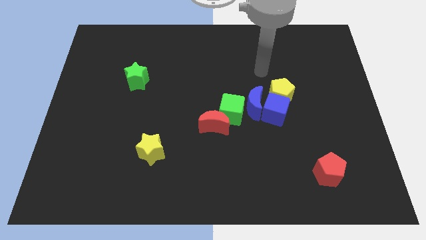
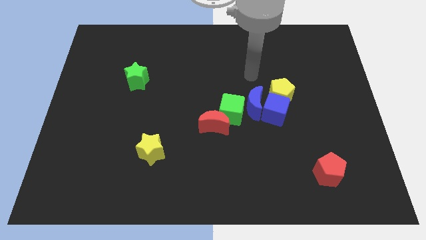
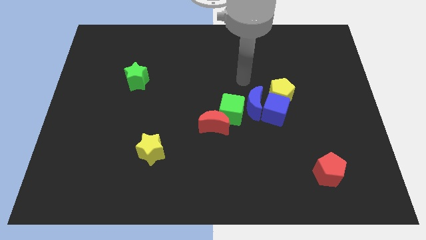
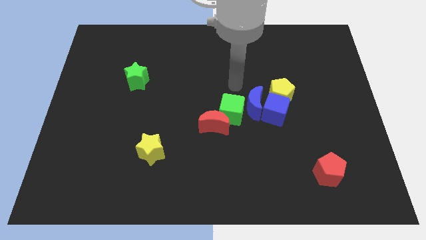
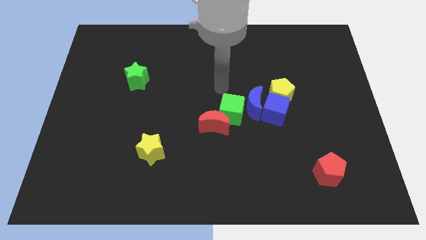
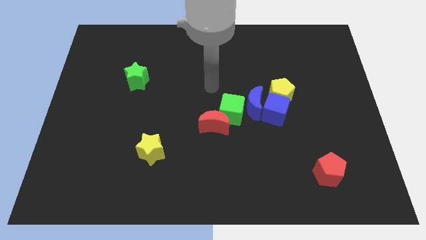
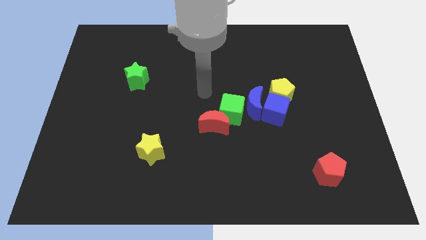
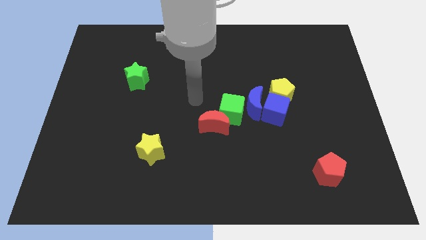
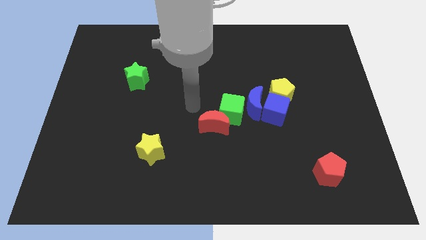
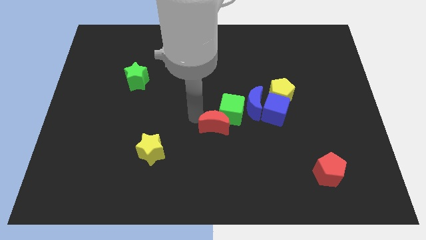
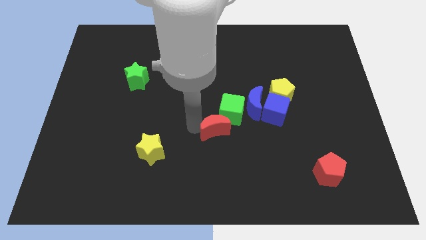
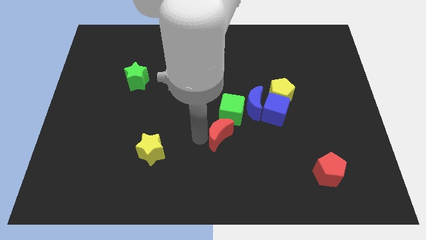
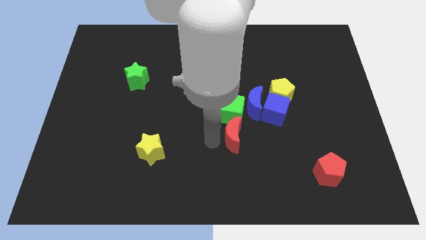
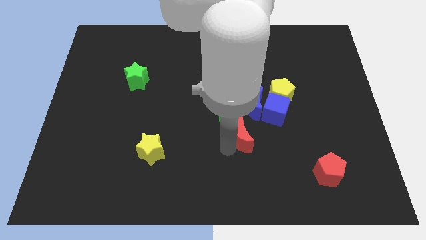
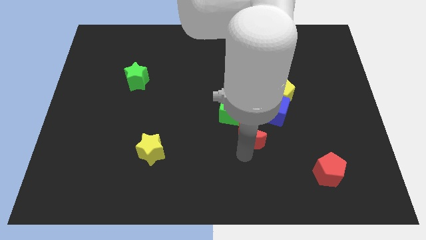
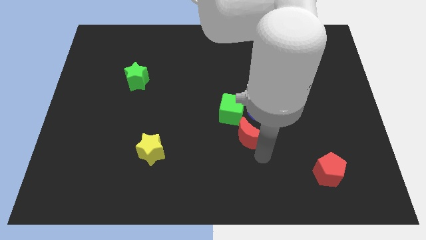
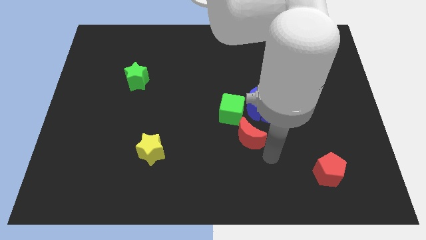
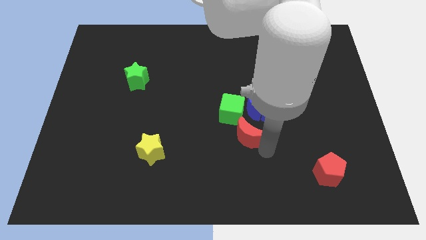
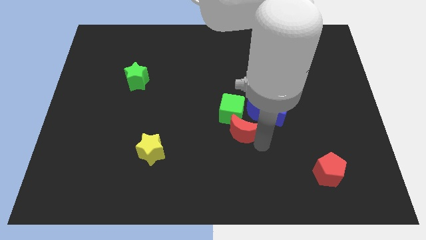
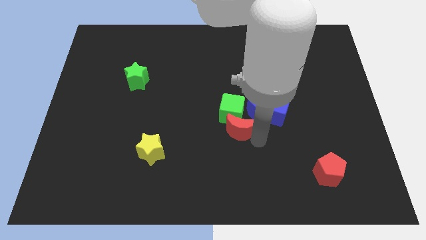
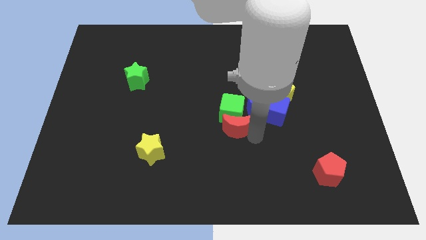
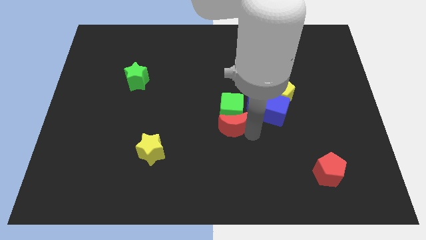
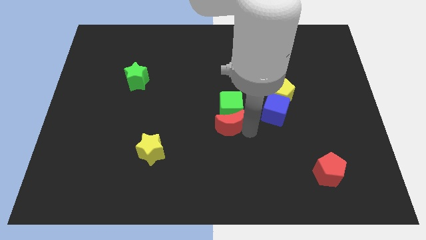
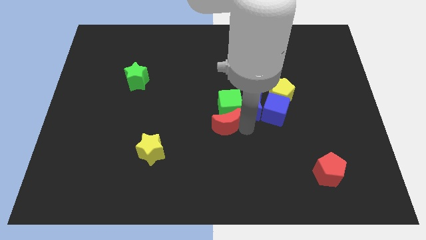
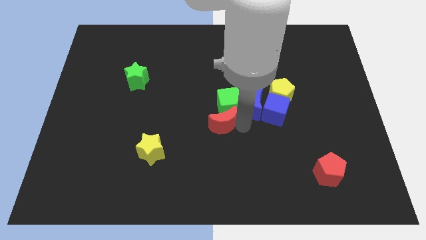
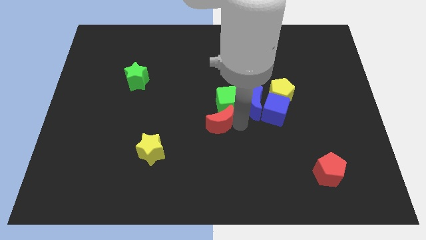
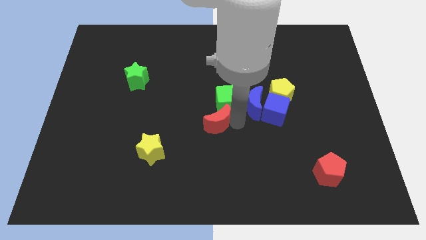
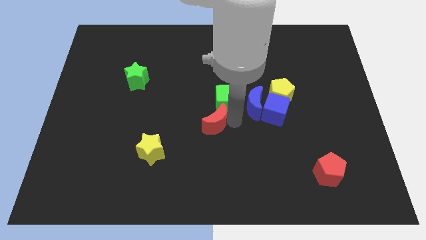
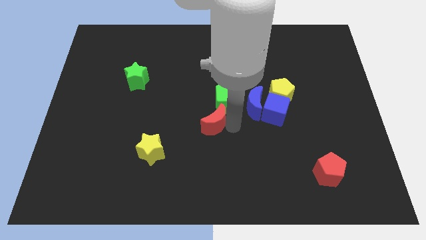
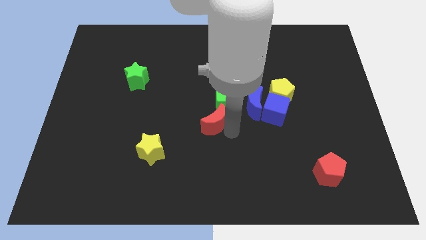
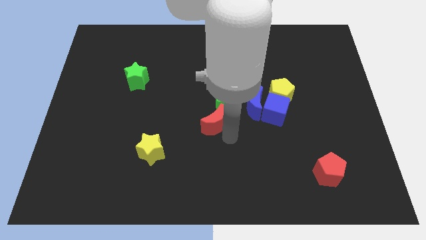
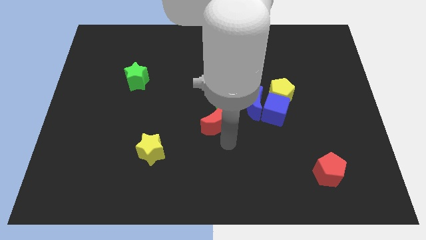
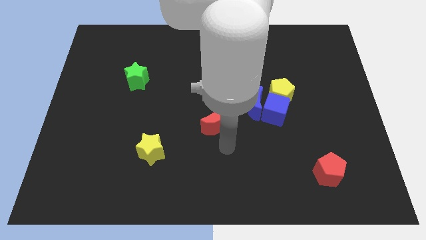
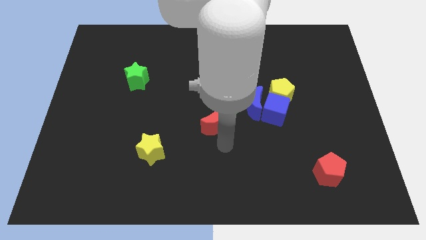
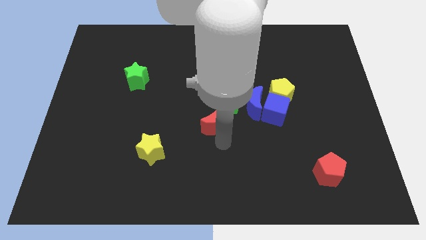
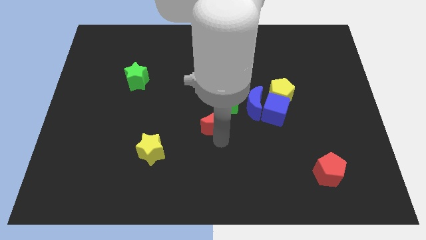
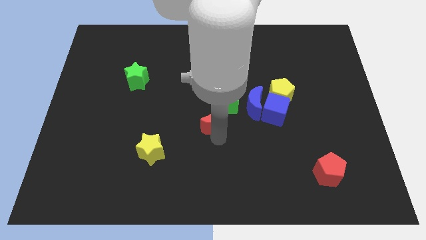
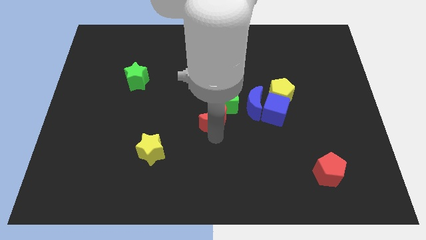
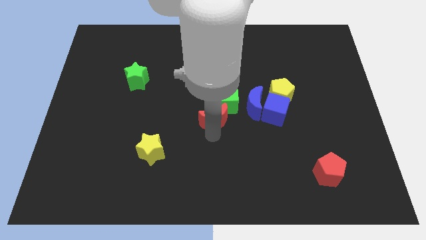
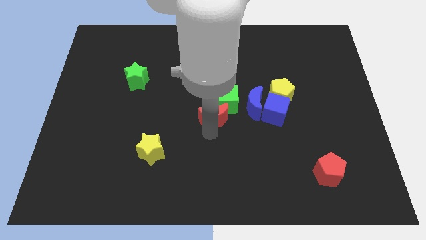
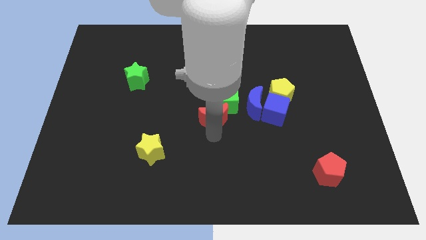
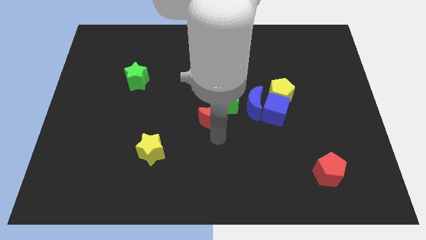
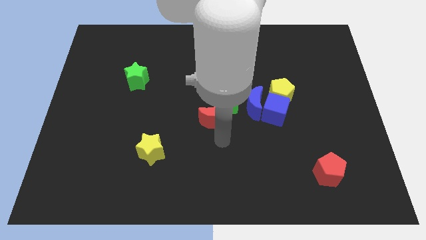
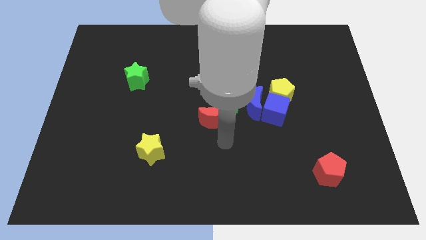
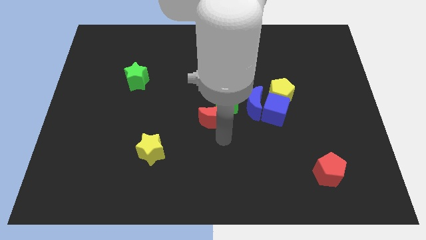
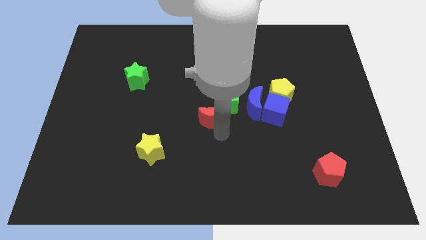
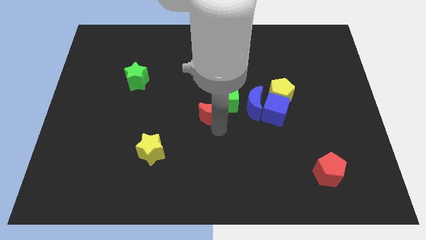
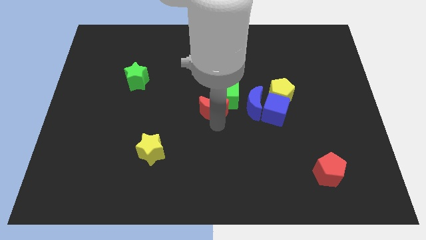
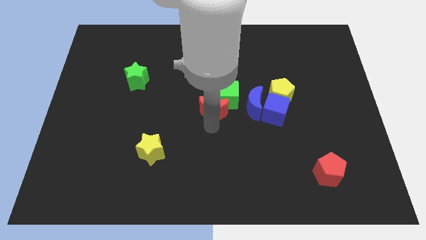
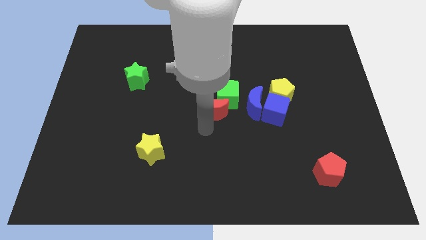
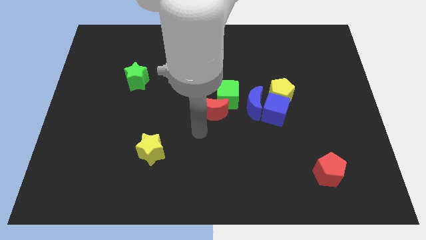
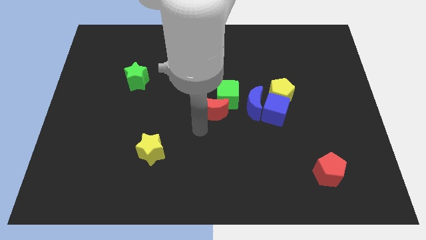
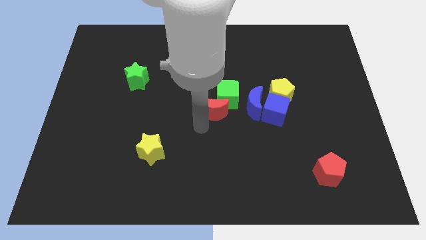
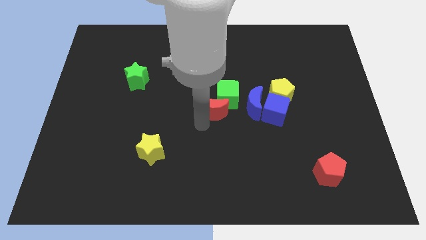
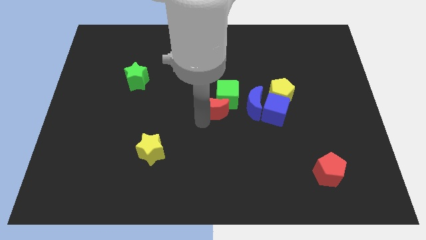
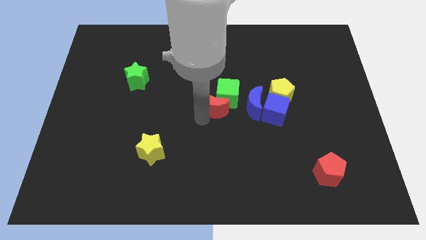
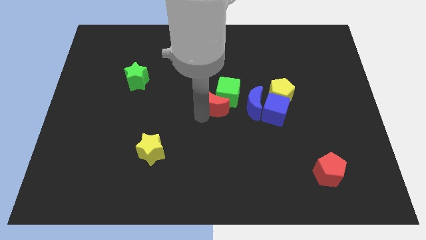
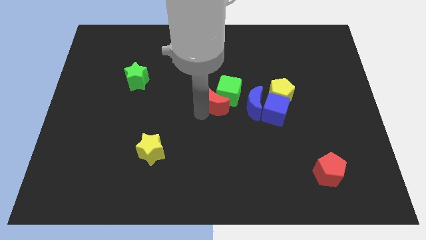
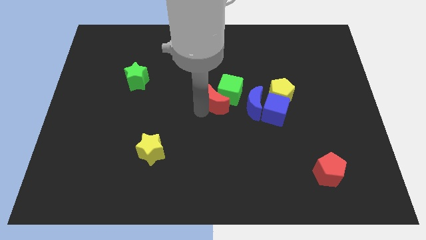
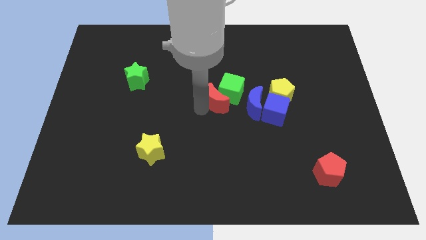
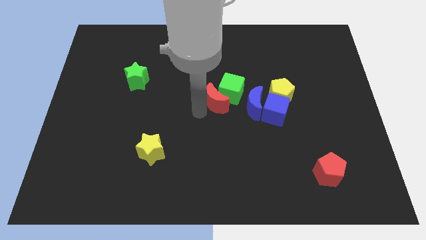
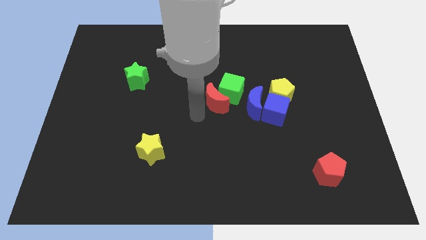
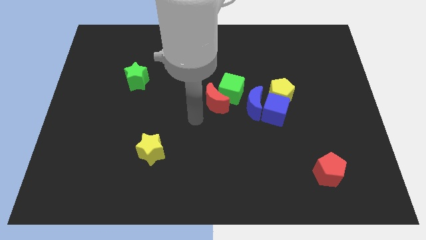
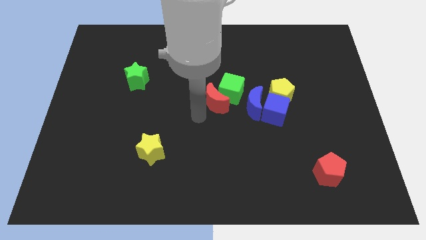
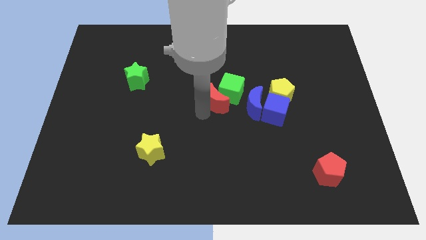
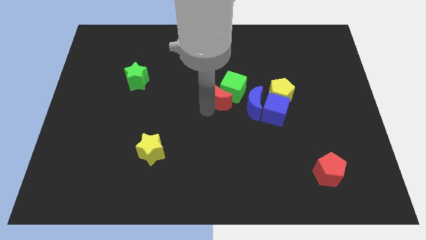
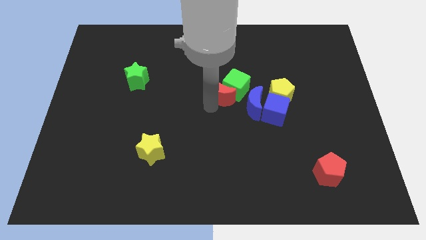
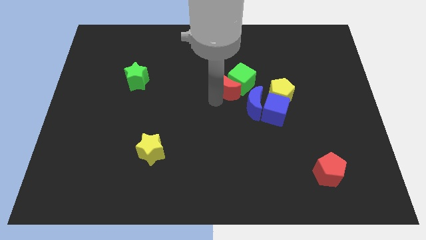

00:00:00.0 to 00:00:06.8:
push the red moon somewhat upwards and right diagonally

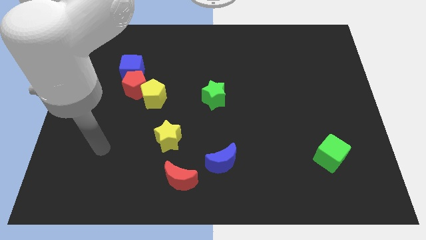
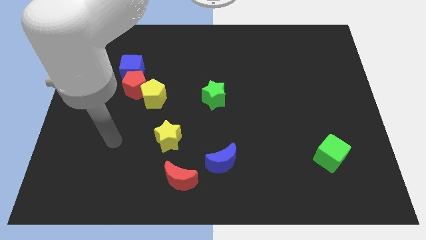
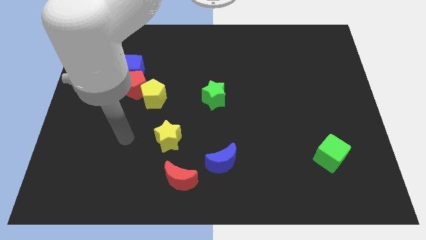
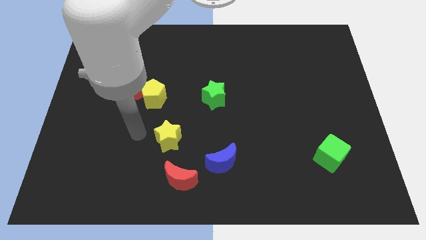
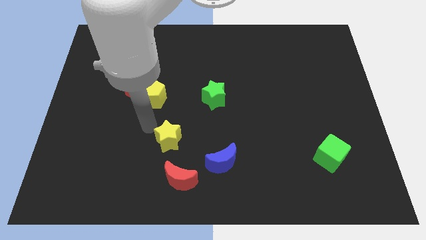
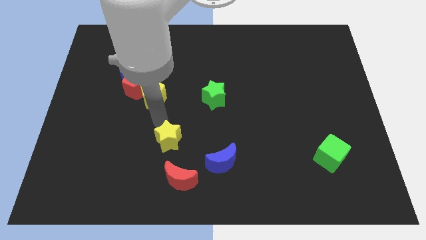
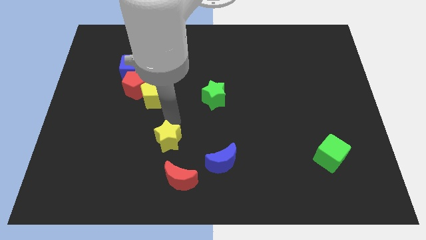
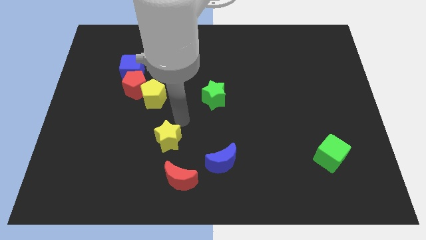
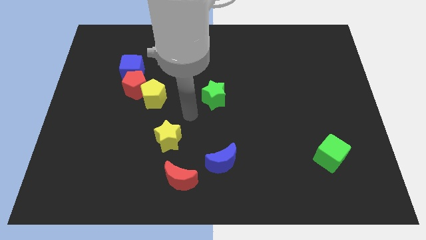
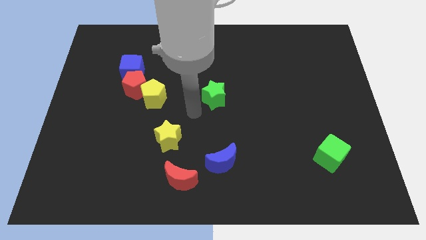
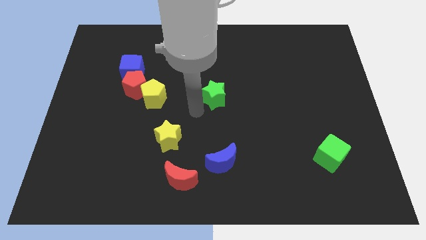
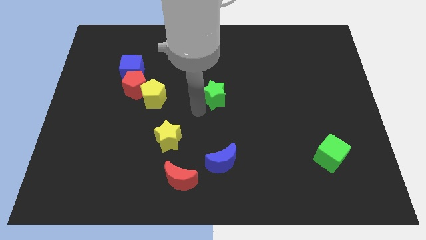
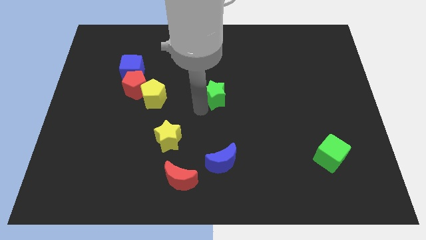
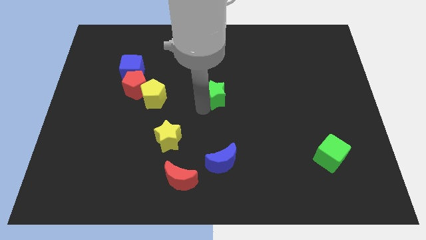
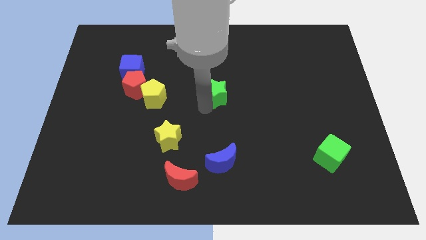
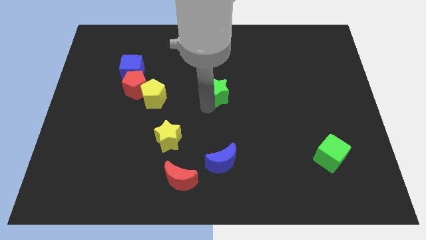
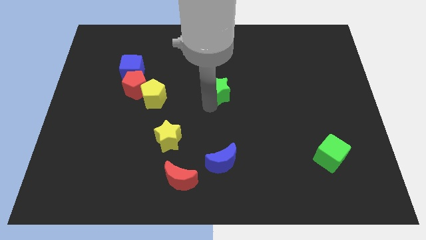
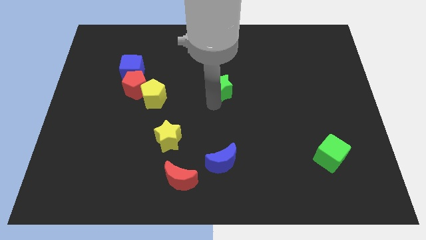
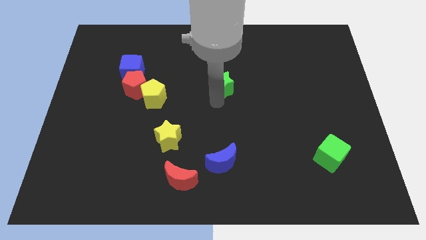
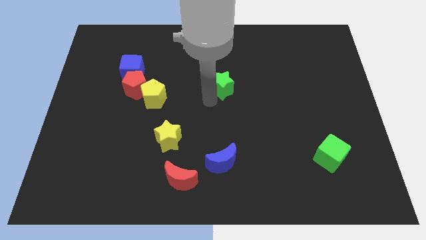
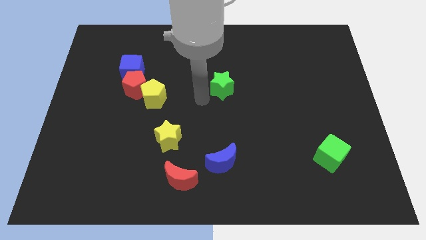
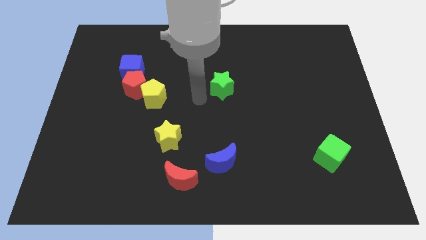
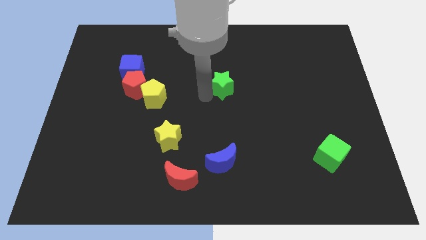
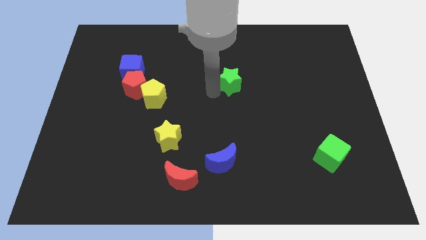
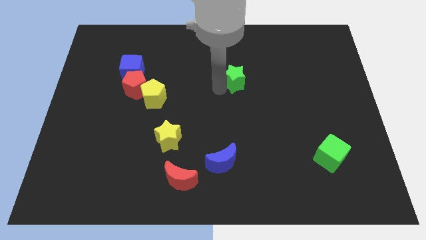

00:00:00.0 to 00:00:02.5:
slide the green star up and then to the right a little bit
